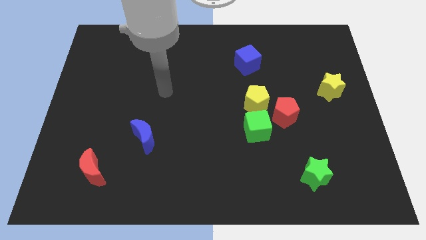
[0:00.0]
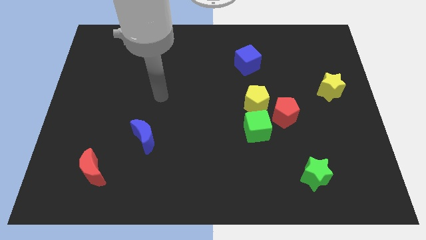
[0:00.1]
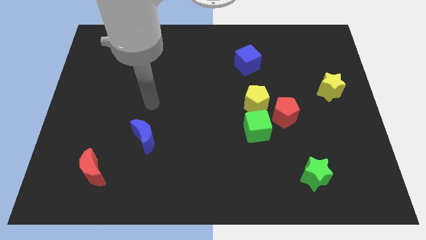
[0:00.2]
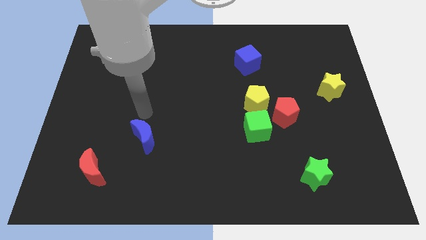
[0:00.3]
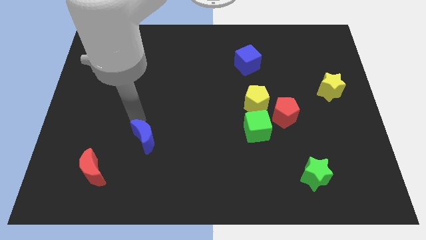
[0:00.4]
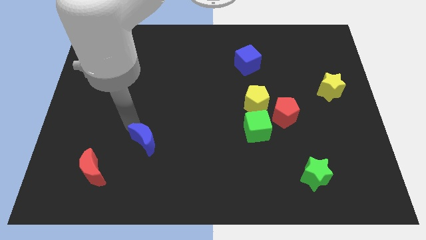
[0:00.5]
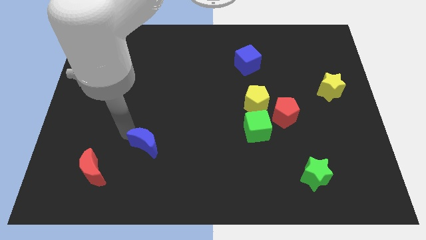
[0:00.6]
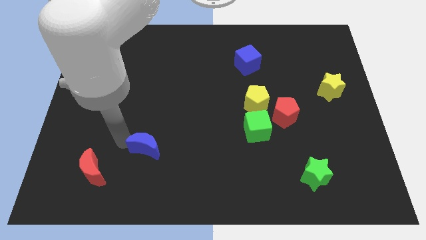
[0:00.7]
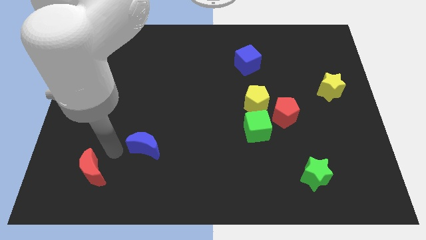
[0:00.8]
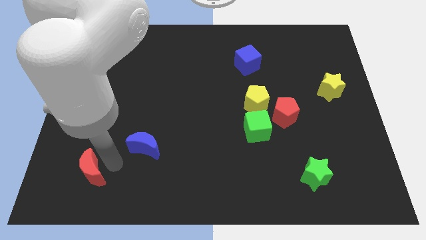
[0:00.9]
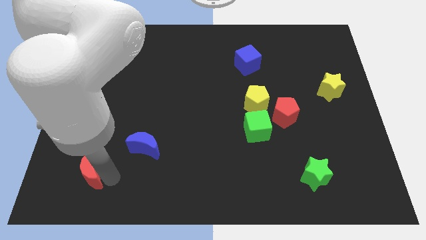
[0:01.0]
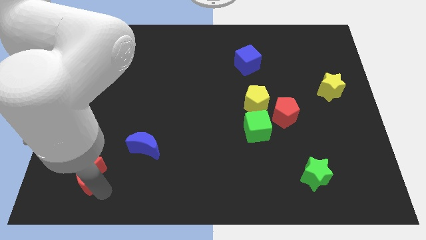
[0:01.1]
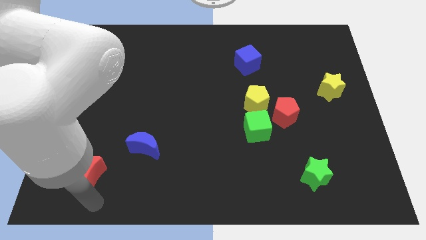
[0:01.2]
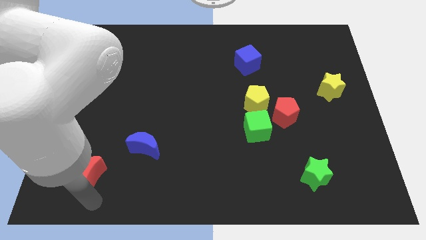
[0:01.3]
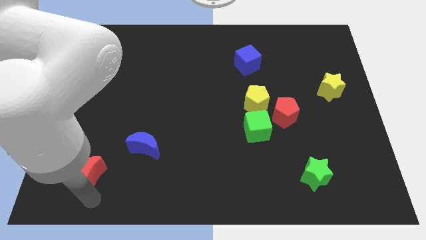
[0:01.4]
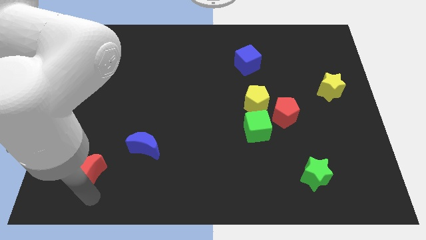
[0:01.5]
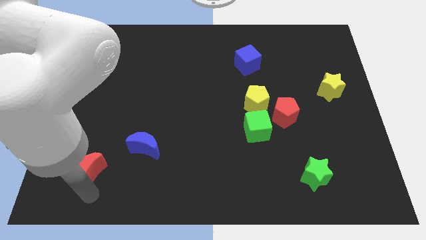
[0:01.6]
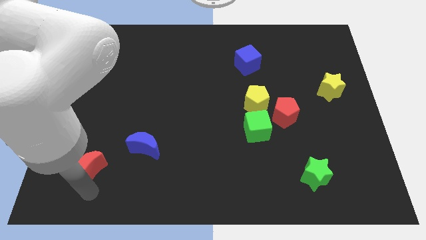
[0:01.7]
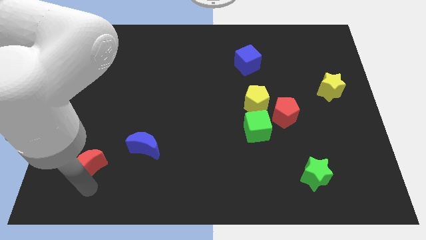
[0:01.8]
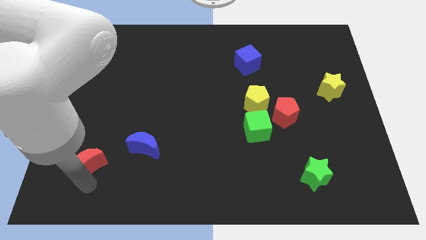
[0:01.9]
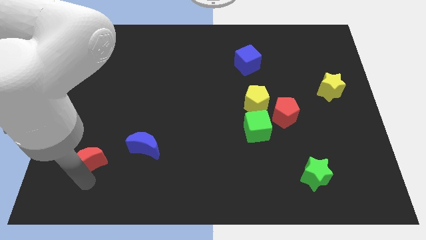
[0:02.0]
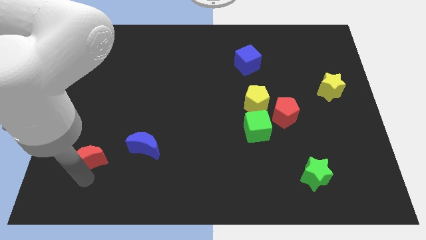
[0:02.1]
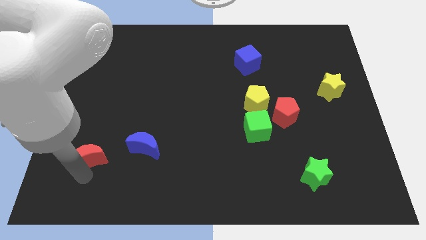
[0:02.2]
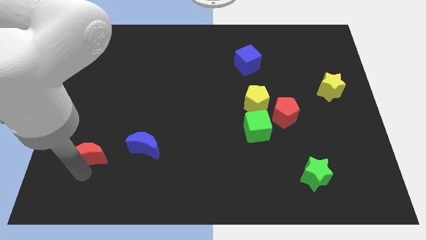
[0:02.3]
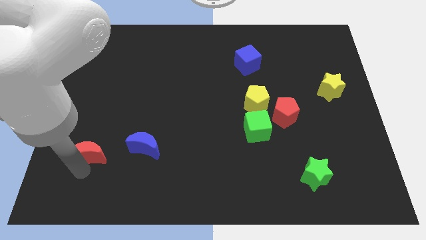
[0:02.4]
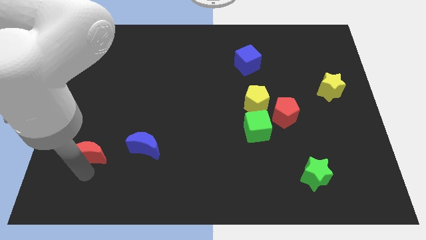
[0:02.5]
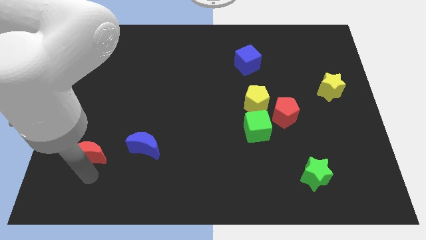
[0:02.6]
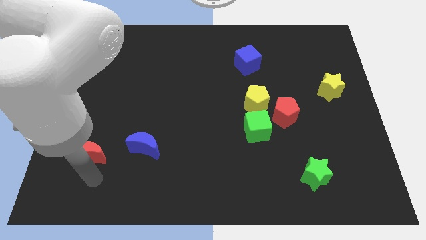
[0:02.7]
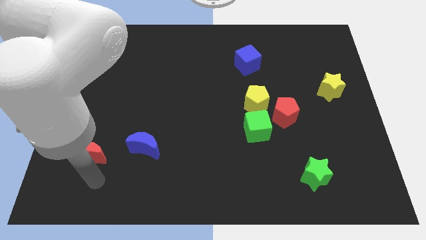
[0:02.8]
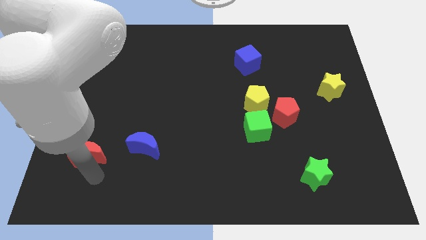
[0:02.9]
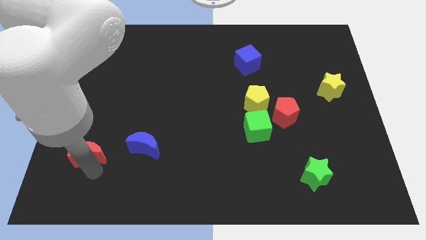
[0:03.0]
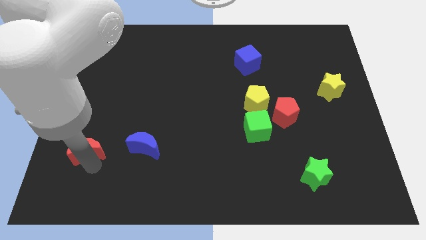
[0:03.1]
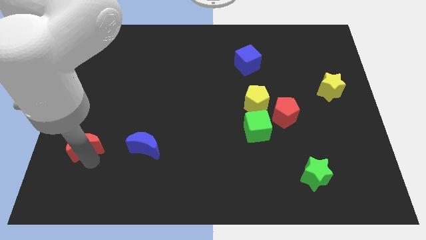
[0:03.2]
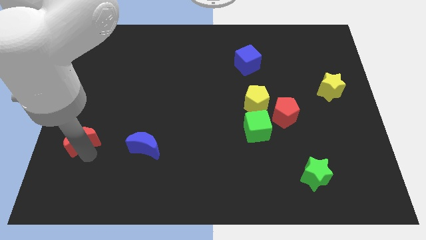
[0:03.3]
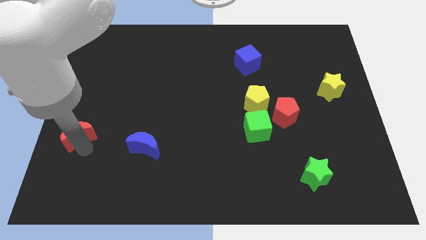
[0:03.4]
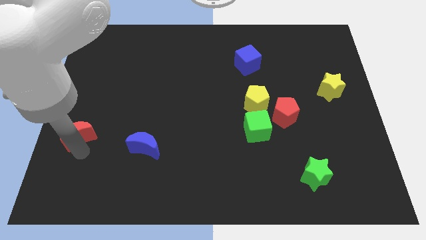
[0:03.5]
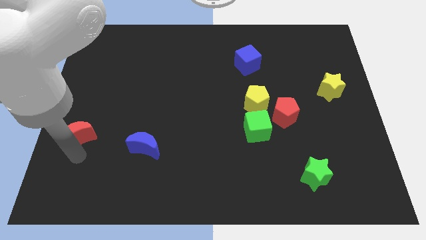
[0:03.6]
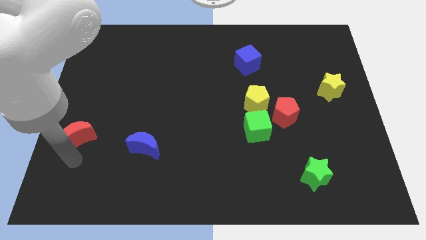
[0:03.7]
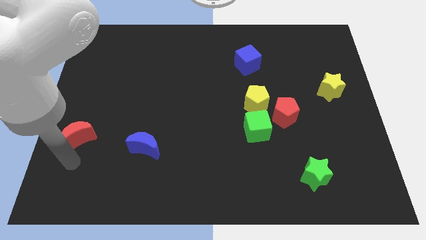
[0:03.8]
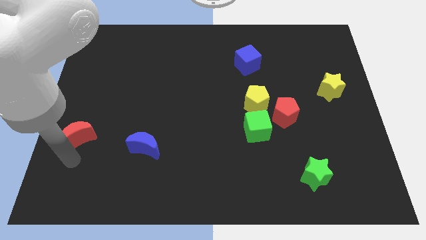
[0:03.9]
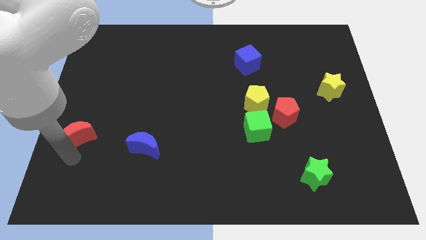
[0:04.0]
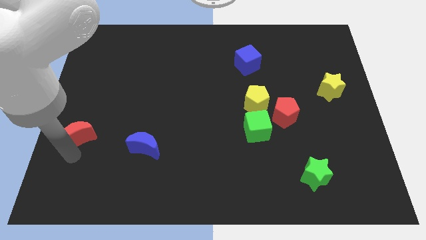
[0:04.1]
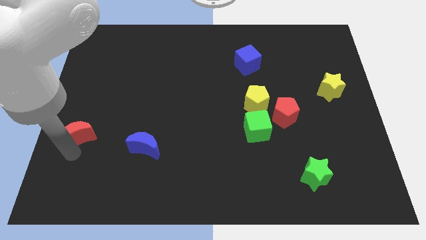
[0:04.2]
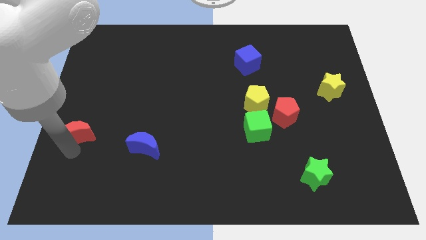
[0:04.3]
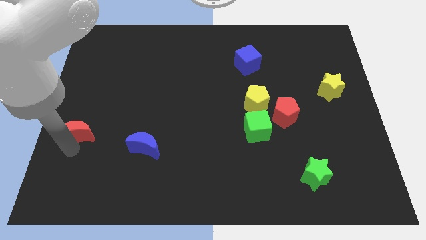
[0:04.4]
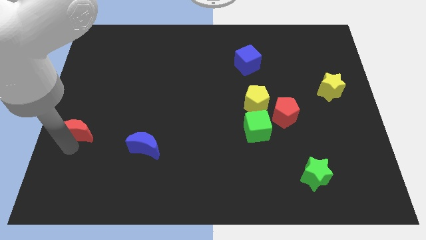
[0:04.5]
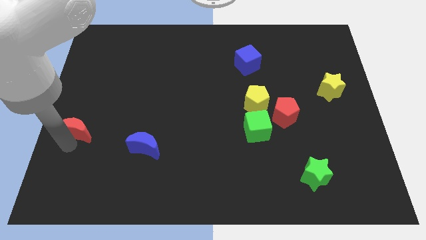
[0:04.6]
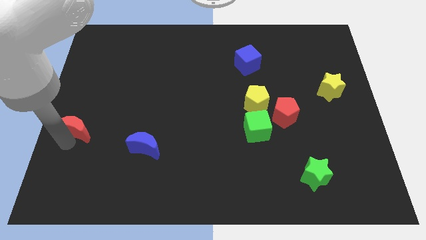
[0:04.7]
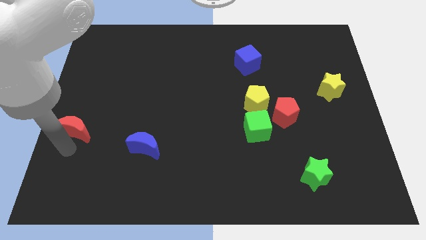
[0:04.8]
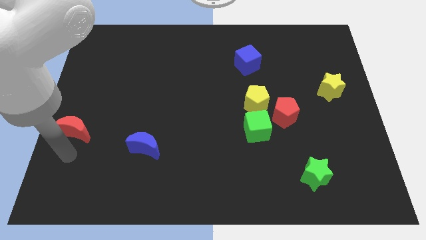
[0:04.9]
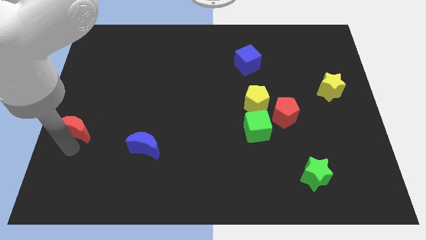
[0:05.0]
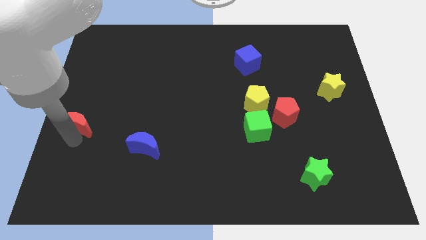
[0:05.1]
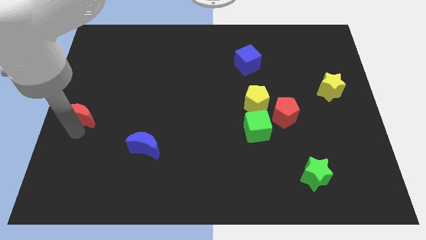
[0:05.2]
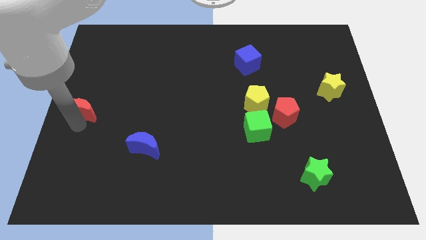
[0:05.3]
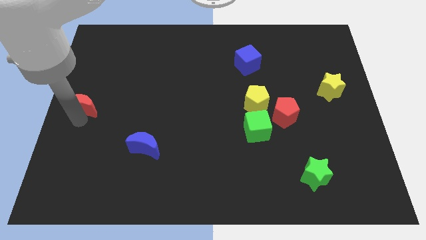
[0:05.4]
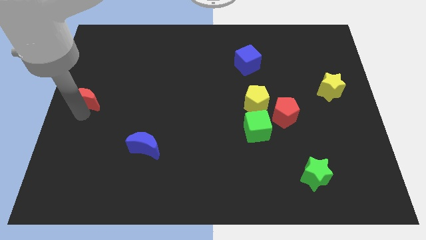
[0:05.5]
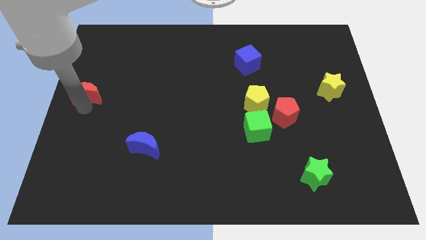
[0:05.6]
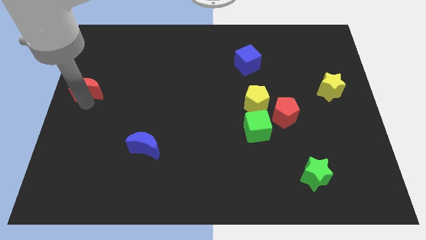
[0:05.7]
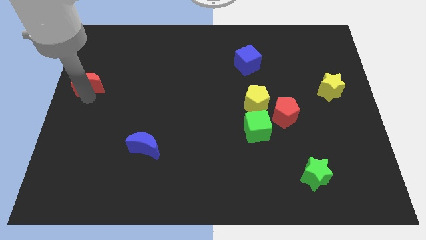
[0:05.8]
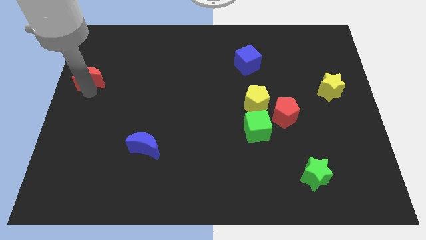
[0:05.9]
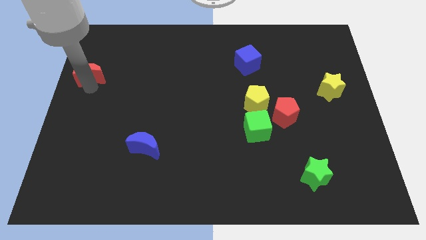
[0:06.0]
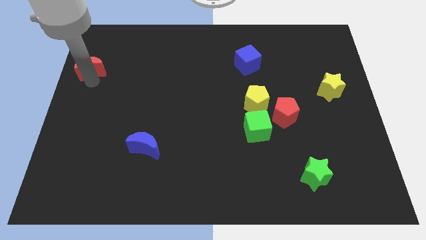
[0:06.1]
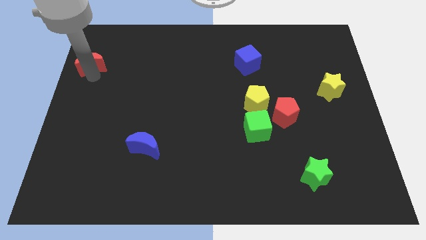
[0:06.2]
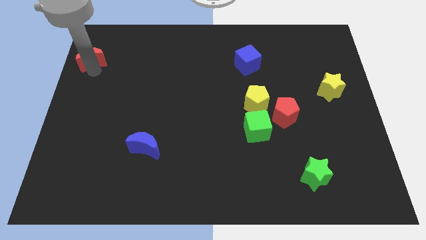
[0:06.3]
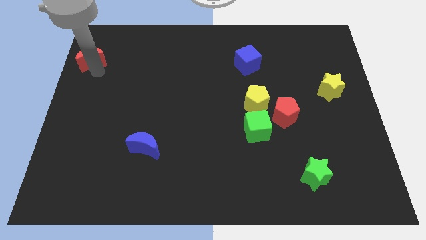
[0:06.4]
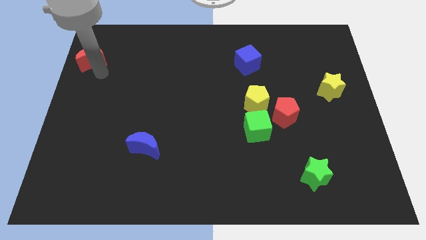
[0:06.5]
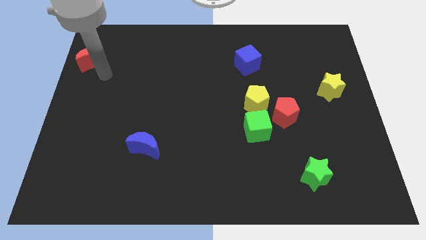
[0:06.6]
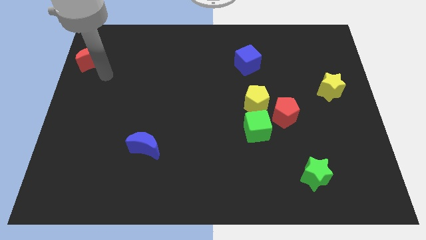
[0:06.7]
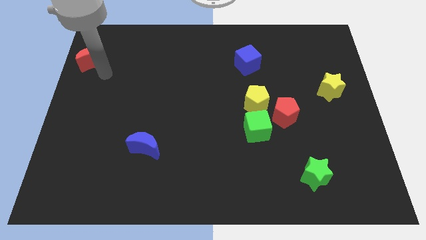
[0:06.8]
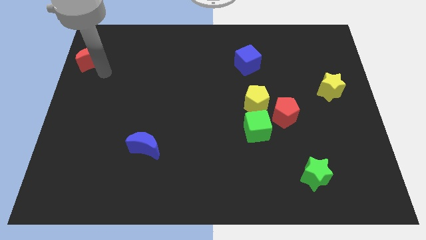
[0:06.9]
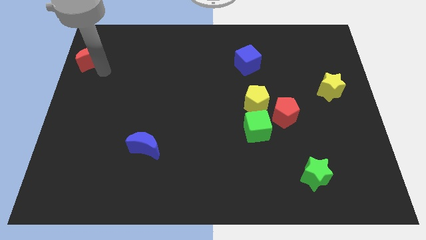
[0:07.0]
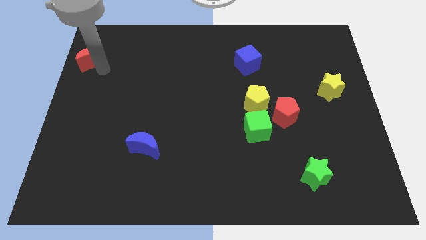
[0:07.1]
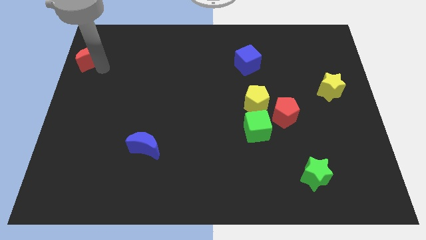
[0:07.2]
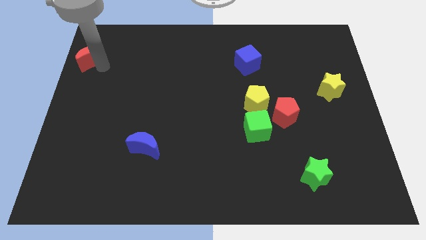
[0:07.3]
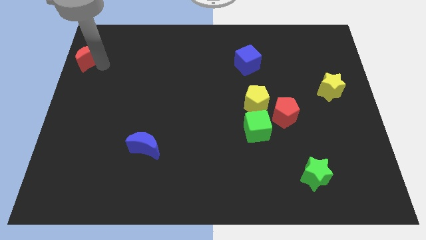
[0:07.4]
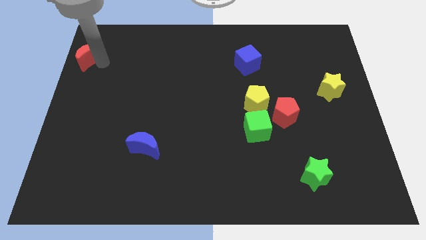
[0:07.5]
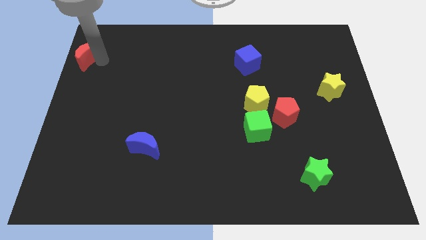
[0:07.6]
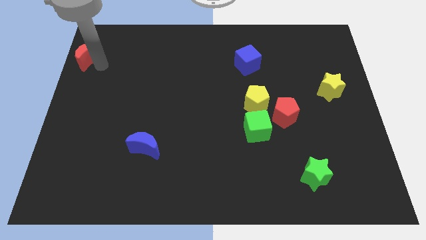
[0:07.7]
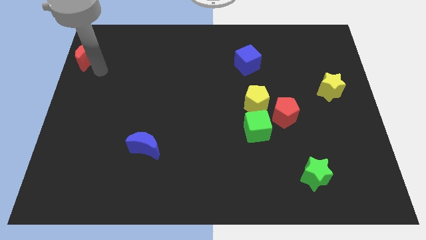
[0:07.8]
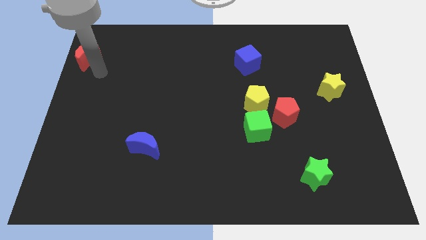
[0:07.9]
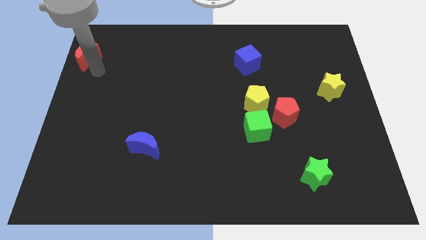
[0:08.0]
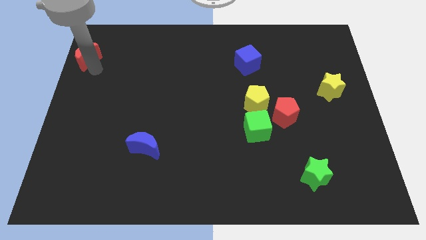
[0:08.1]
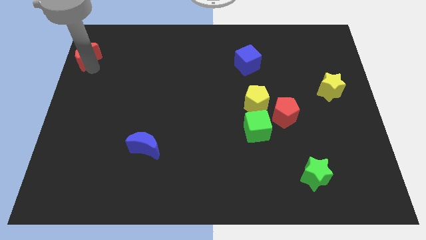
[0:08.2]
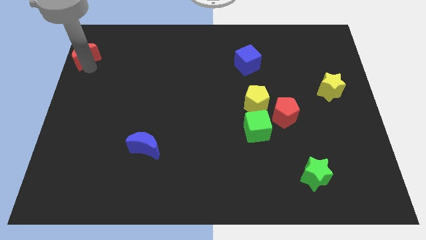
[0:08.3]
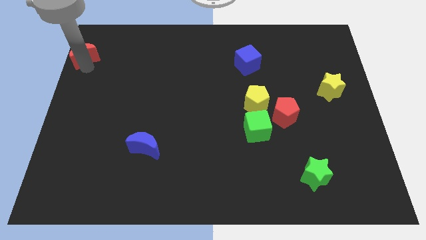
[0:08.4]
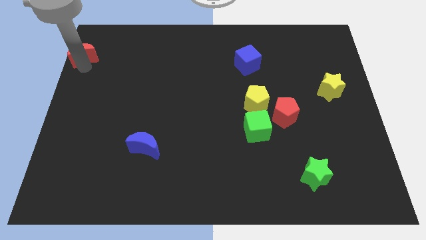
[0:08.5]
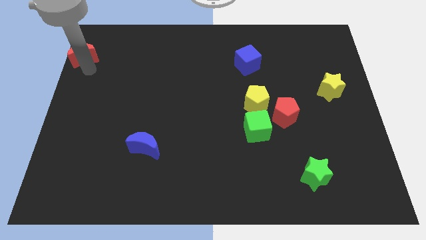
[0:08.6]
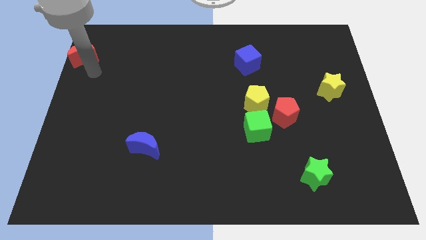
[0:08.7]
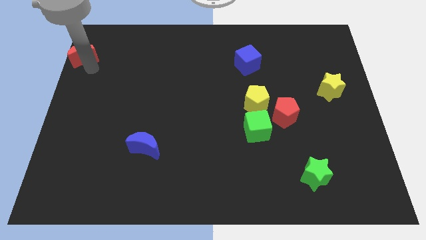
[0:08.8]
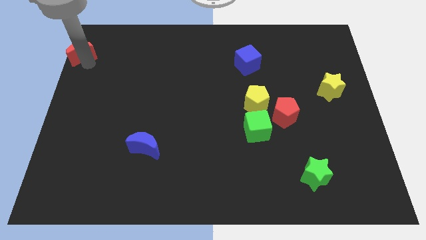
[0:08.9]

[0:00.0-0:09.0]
move the red moon to the top left corner
